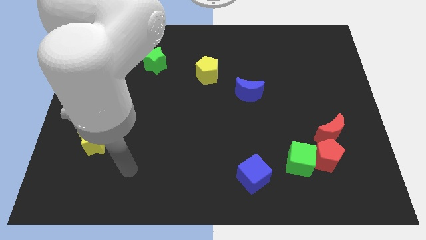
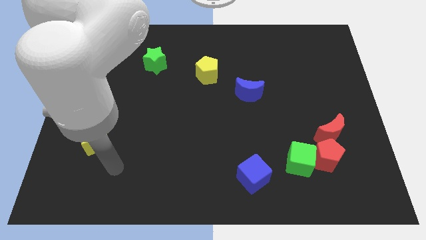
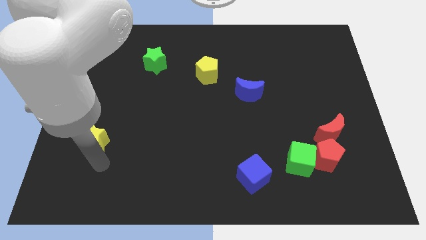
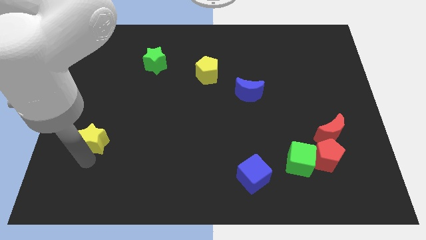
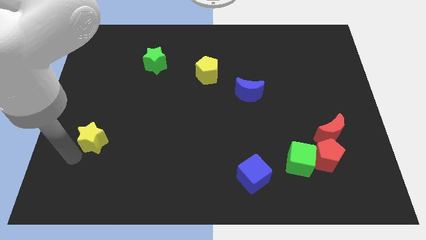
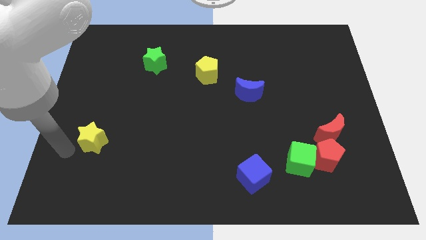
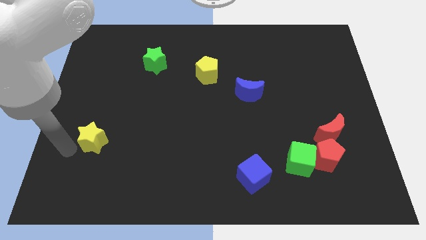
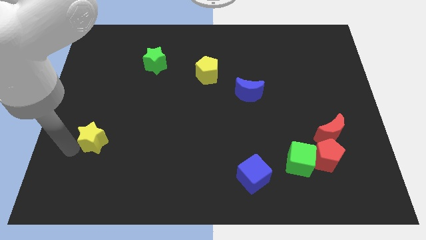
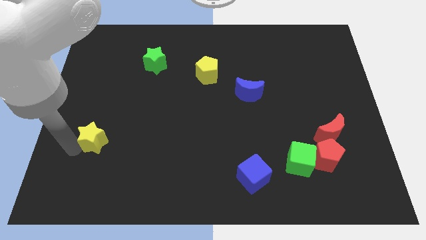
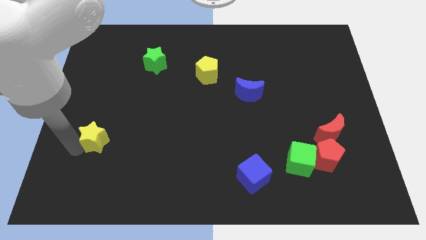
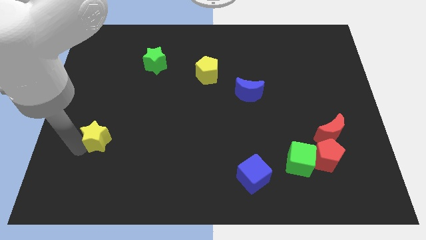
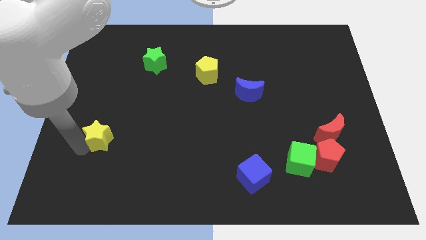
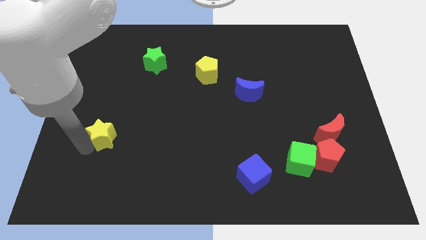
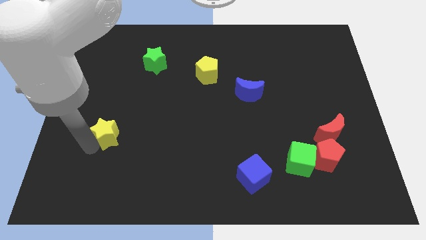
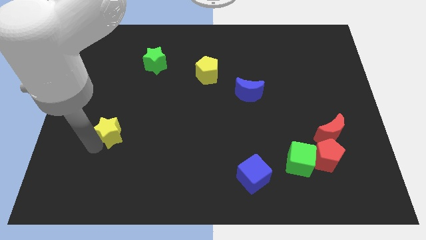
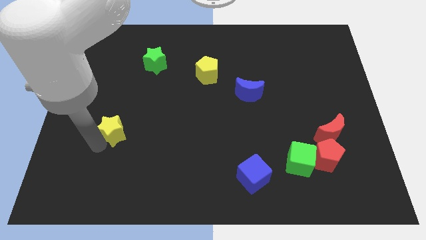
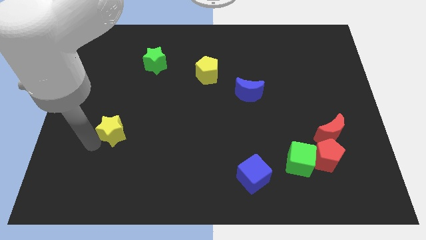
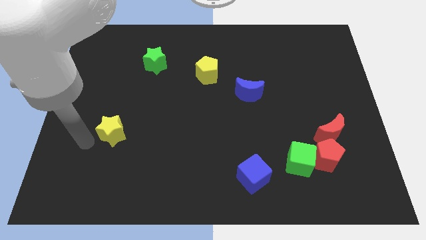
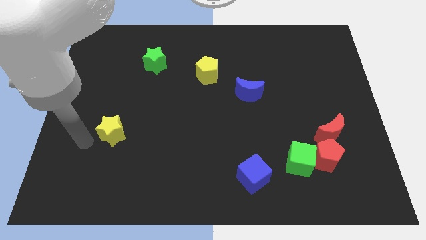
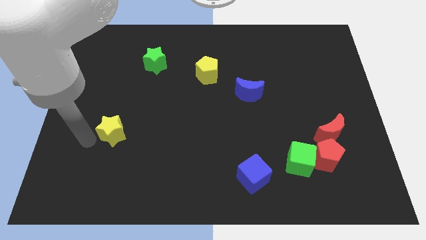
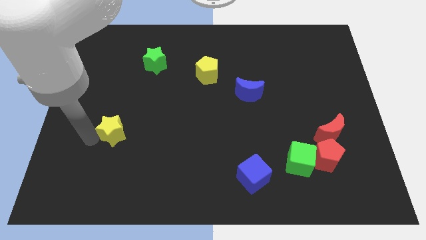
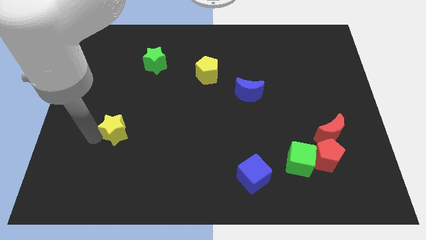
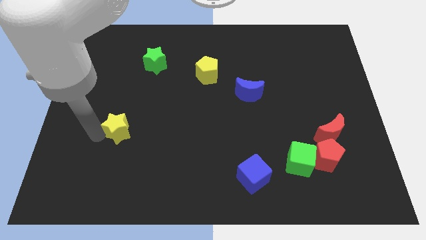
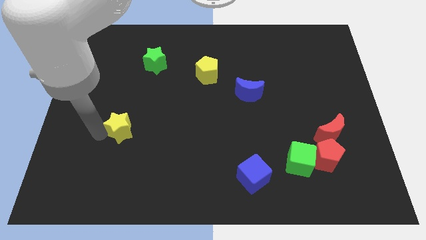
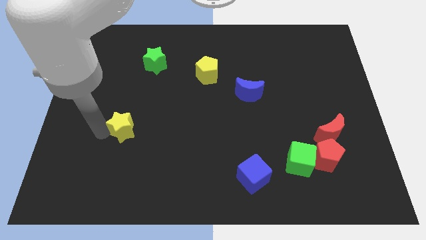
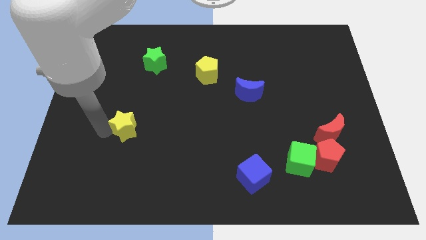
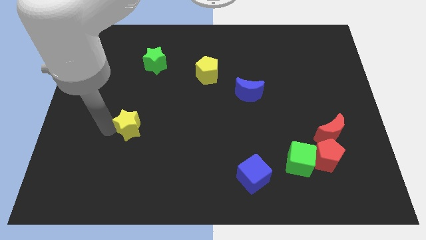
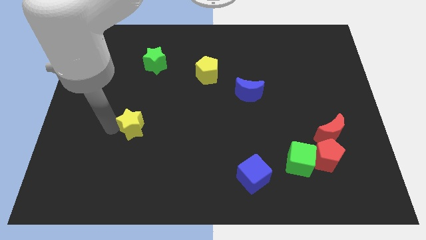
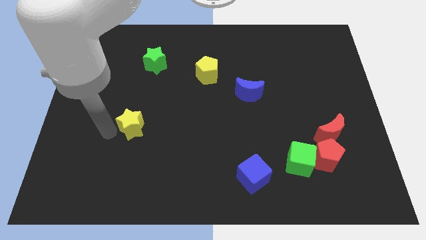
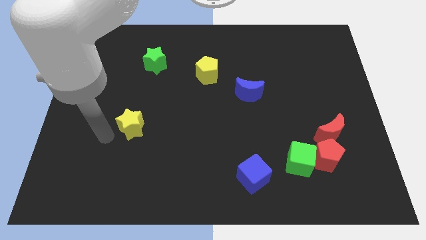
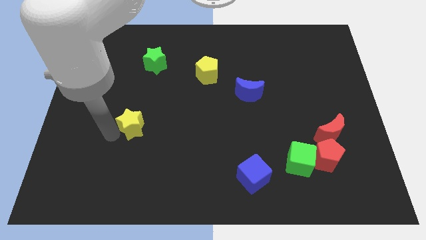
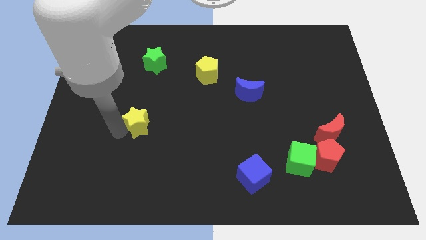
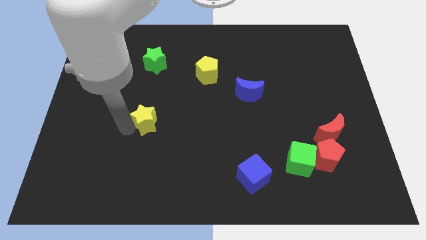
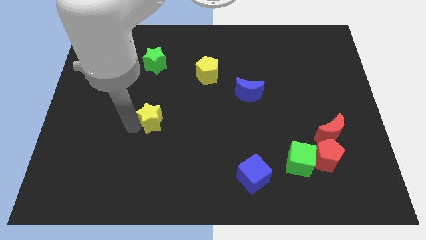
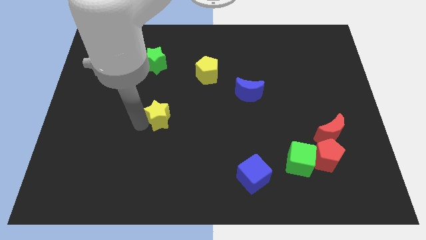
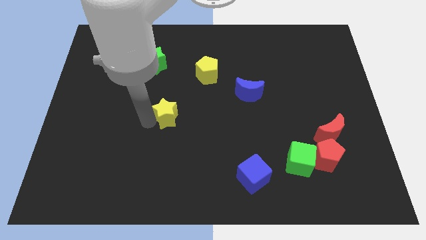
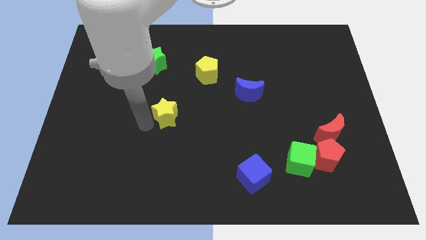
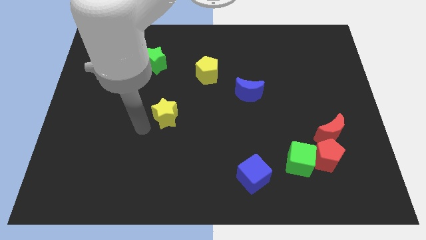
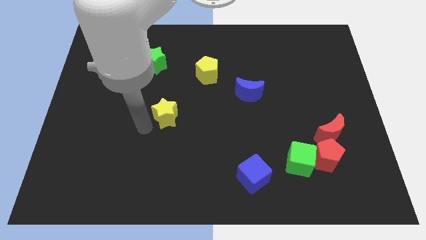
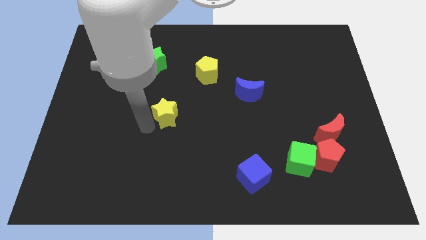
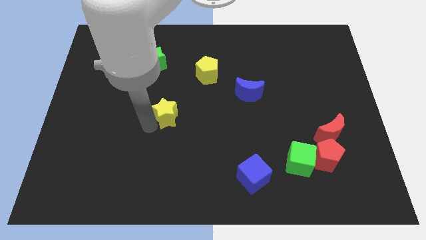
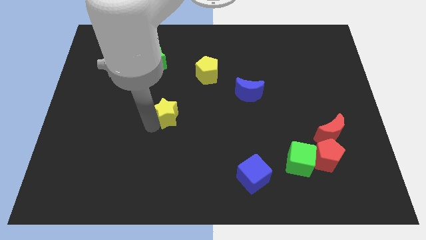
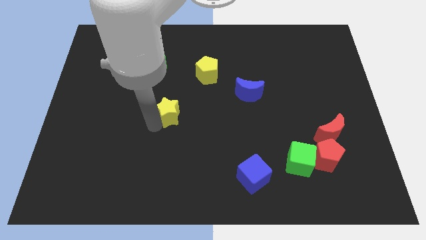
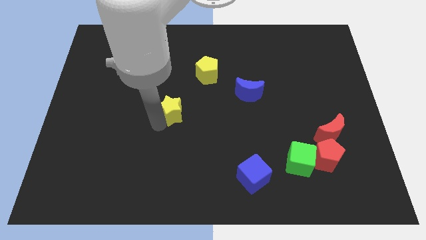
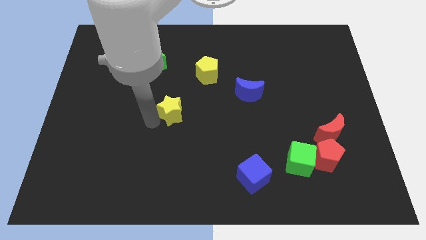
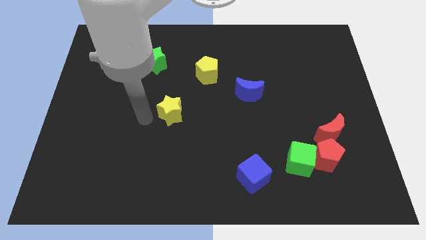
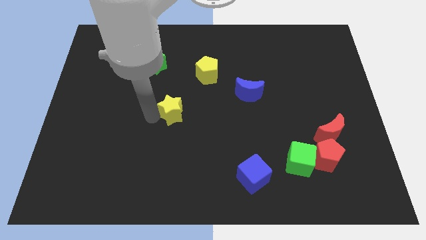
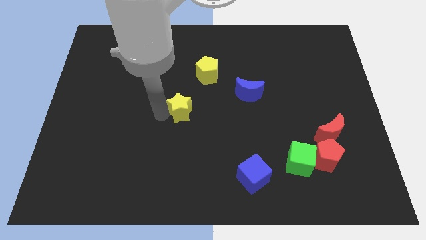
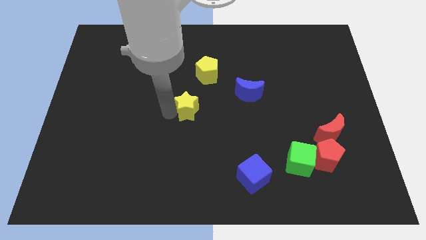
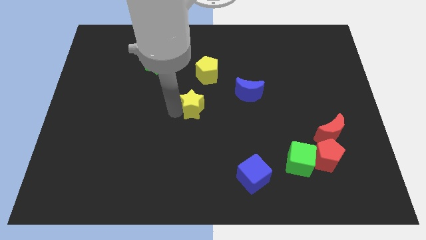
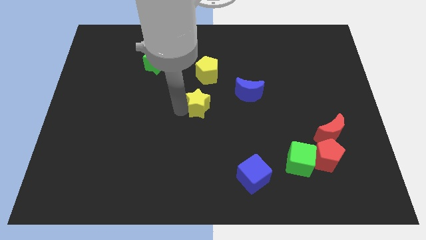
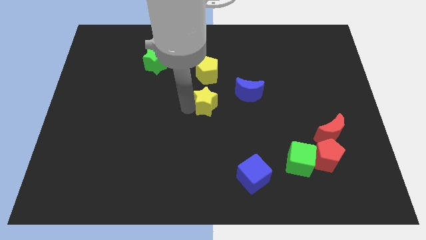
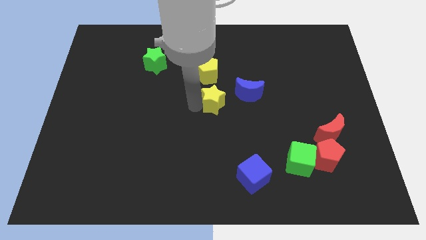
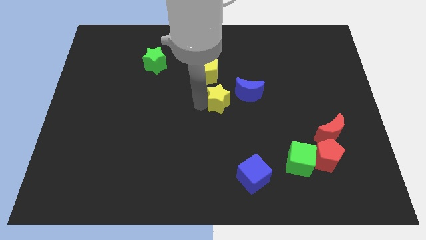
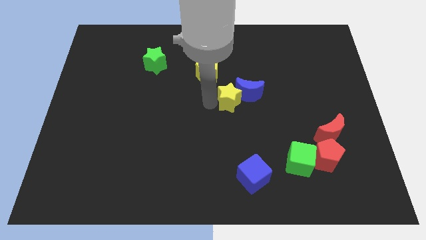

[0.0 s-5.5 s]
move the yellow star to the blue moon

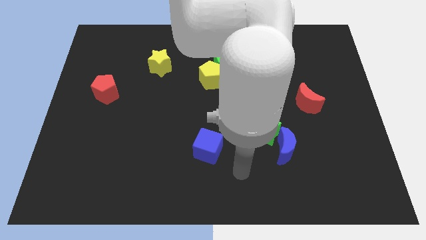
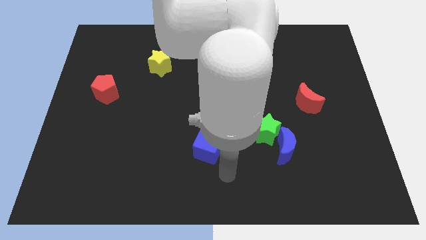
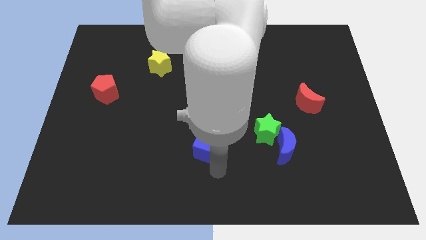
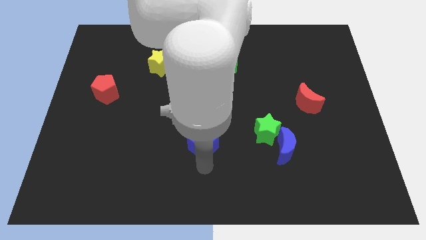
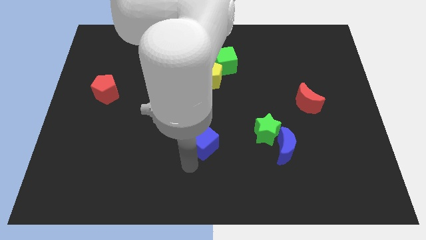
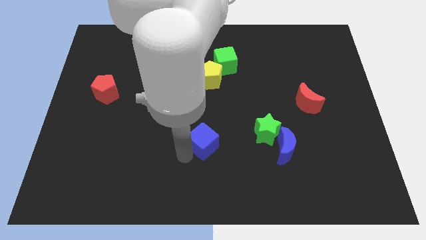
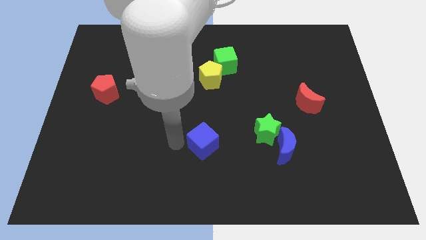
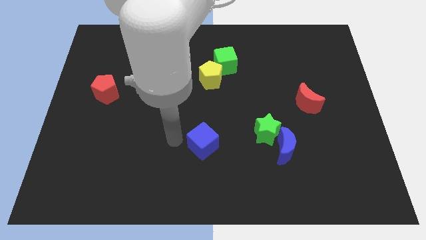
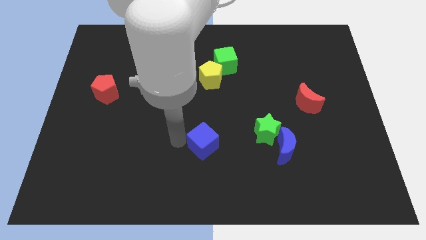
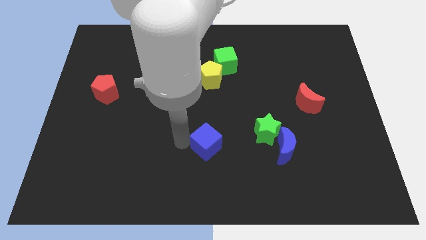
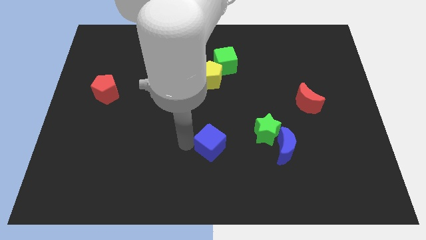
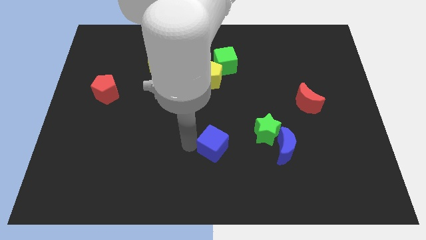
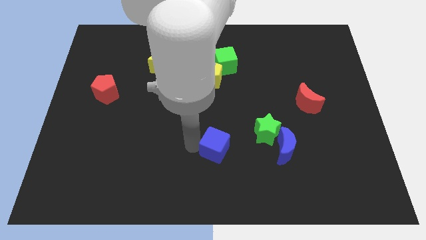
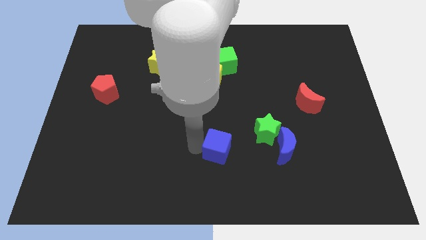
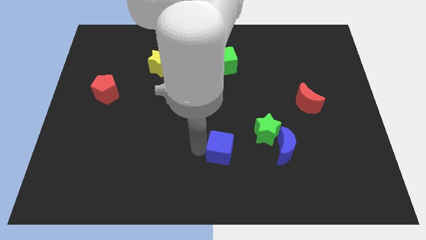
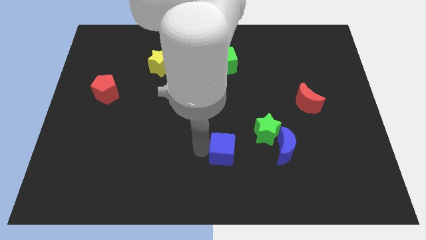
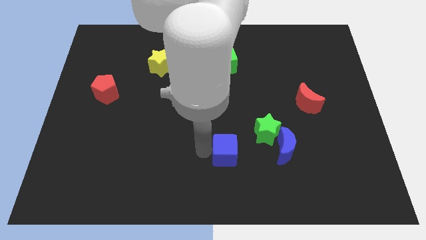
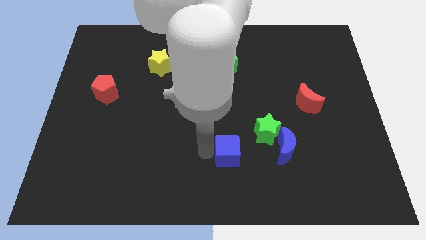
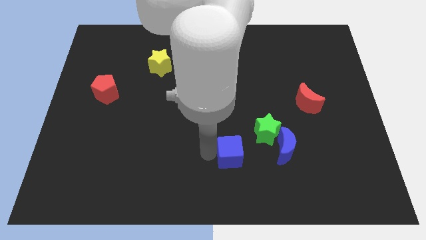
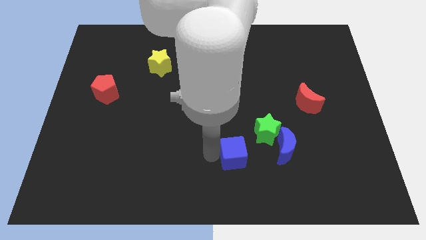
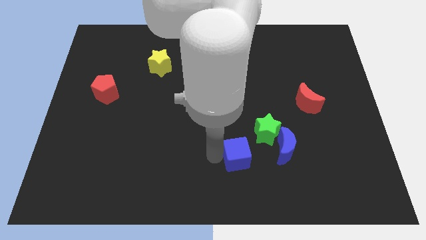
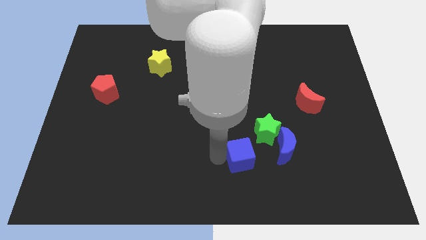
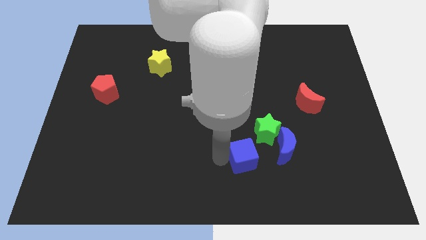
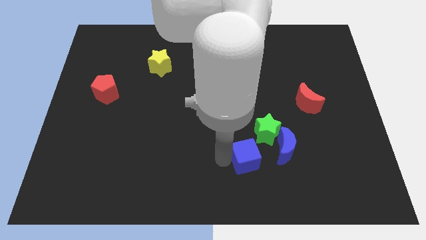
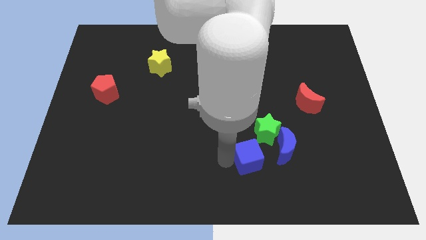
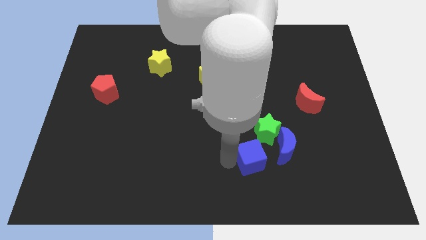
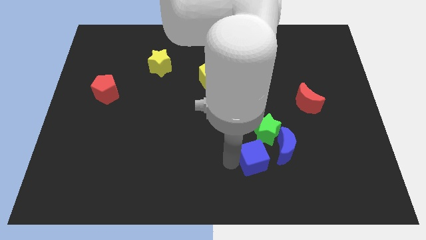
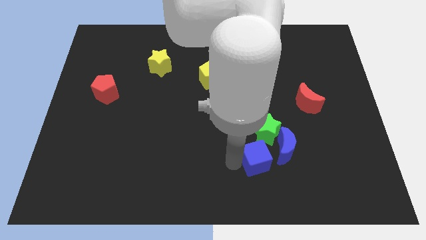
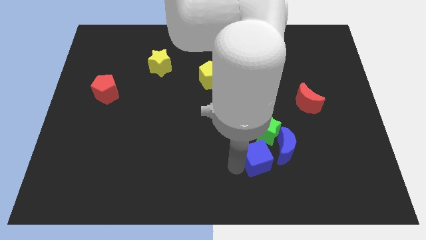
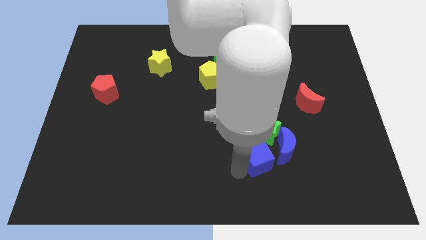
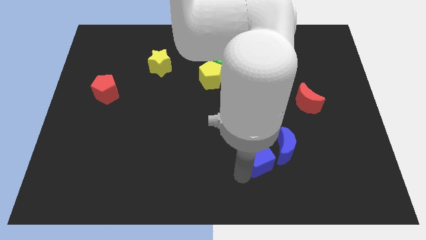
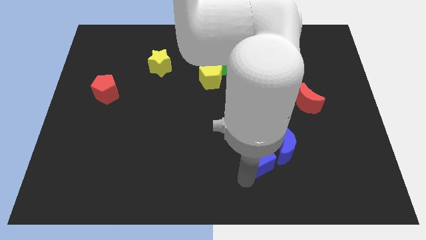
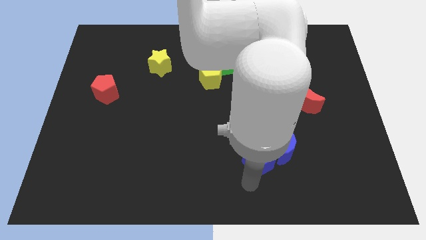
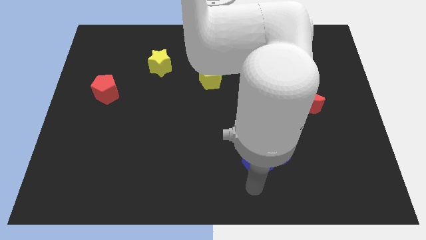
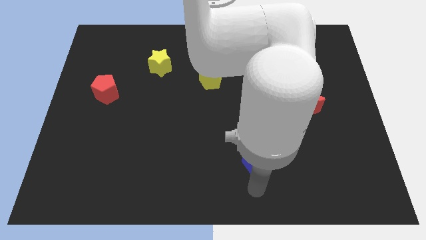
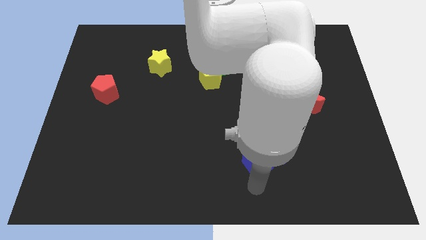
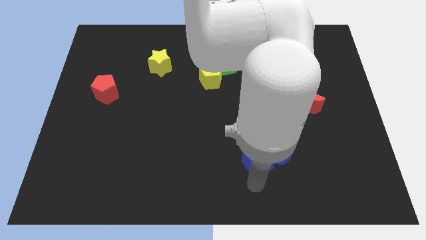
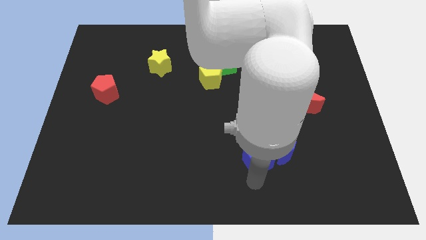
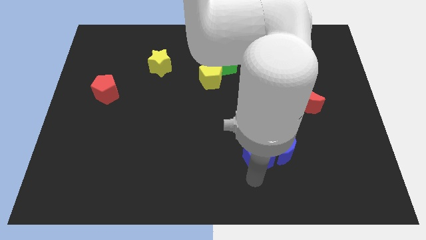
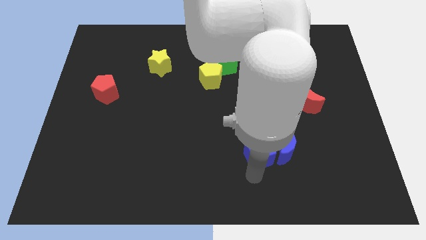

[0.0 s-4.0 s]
move the blue cube close to the green star
